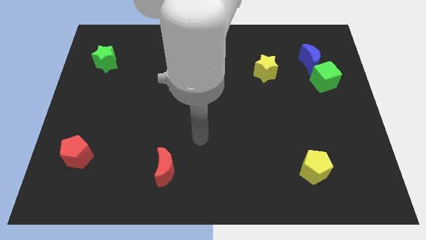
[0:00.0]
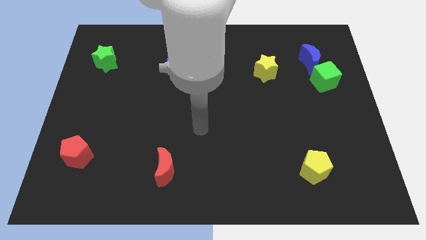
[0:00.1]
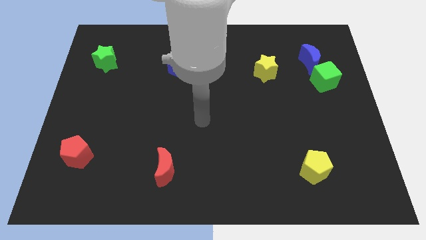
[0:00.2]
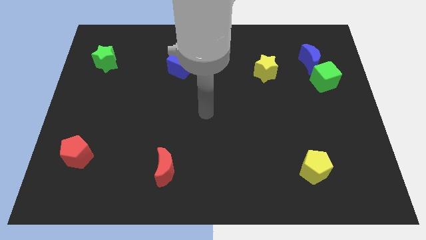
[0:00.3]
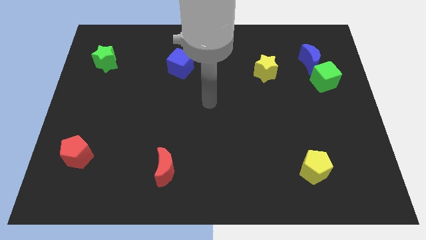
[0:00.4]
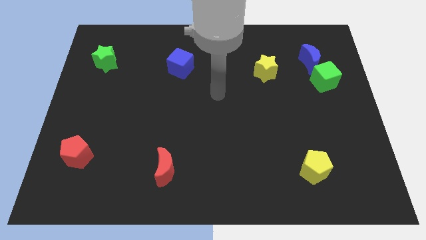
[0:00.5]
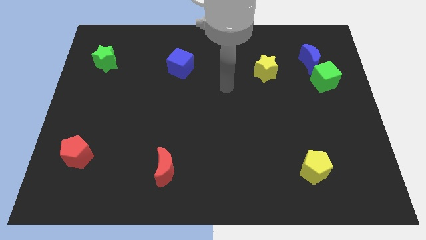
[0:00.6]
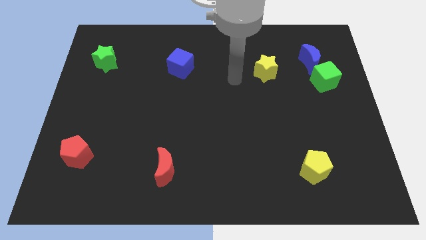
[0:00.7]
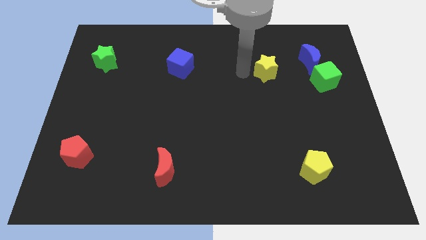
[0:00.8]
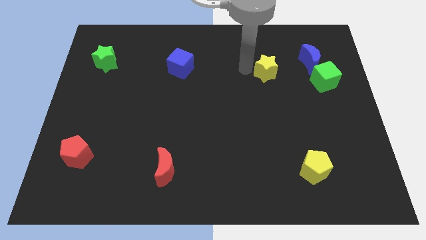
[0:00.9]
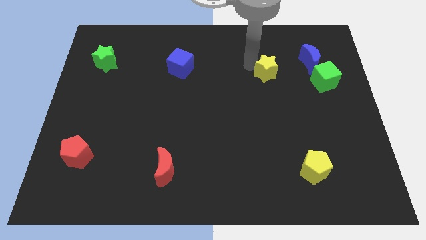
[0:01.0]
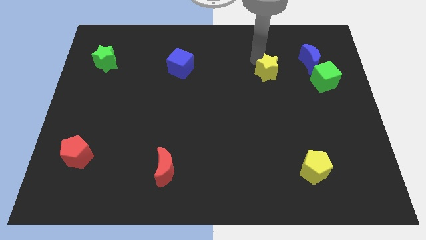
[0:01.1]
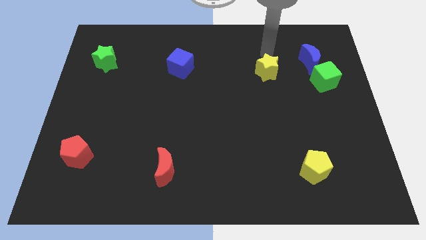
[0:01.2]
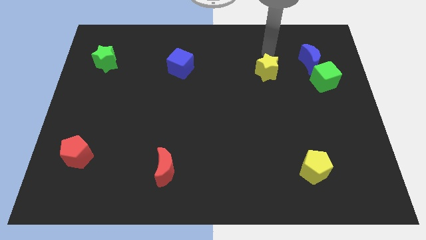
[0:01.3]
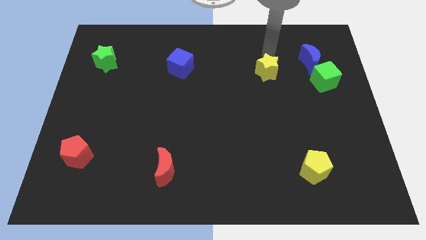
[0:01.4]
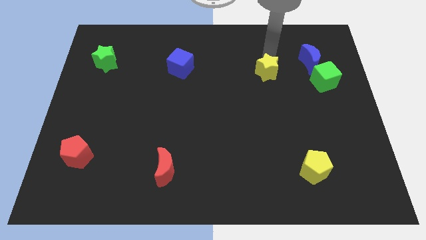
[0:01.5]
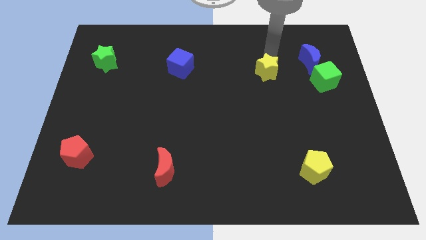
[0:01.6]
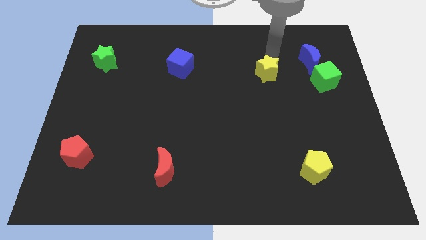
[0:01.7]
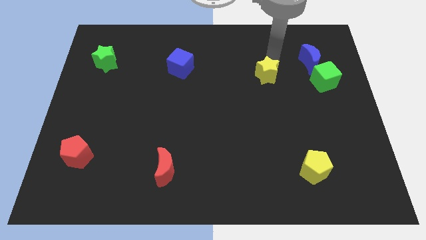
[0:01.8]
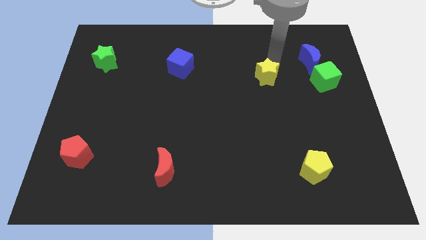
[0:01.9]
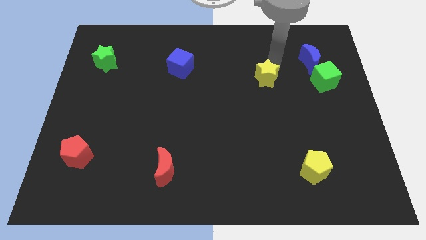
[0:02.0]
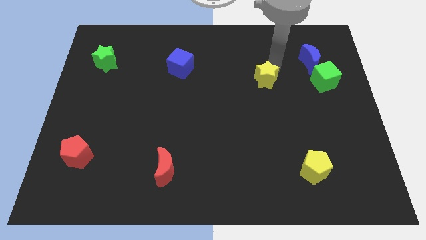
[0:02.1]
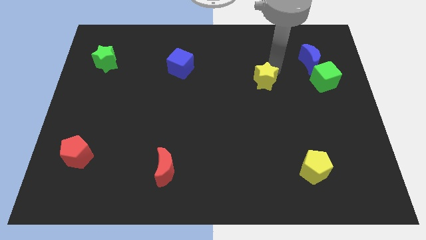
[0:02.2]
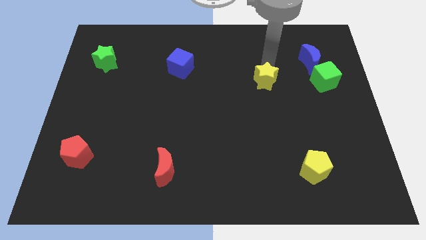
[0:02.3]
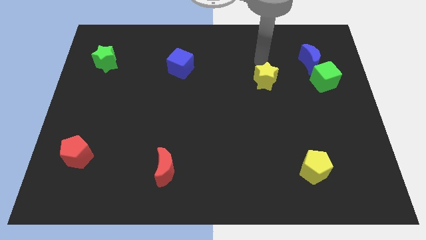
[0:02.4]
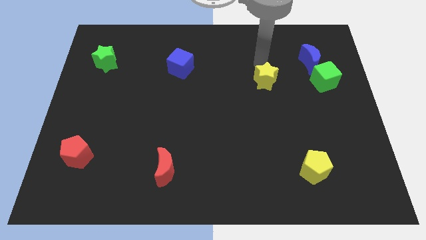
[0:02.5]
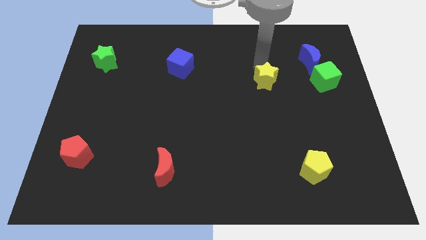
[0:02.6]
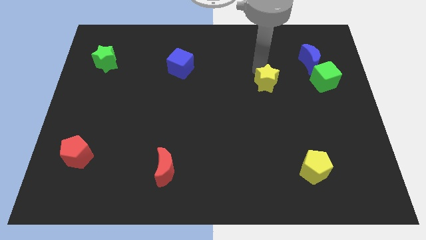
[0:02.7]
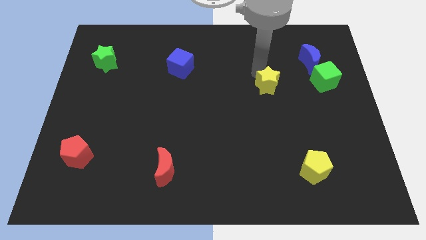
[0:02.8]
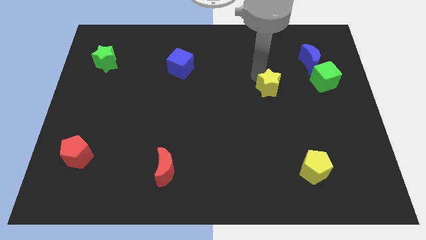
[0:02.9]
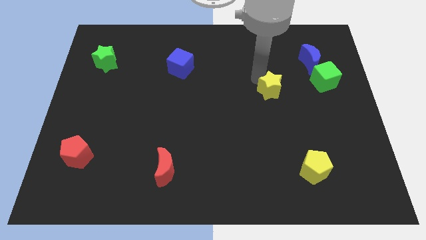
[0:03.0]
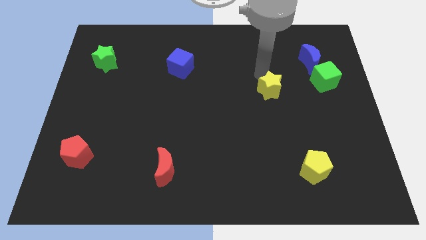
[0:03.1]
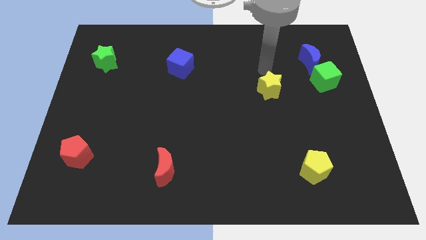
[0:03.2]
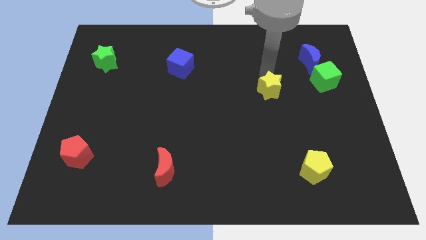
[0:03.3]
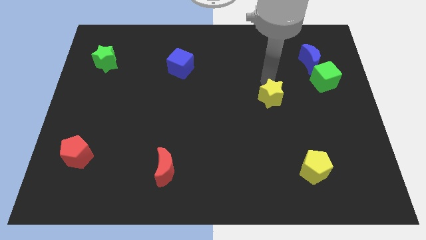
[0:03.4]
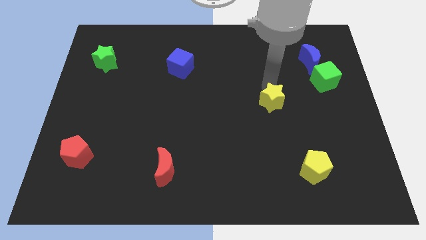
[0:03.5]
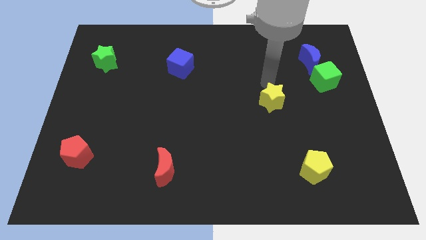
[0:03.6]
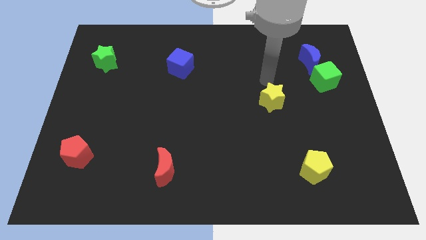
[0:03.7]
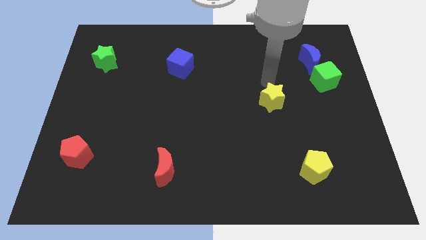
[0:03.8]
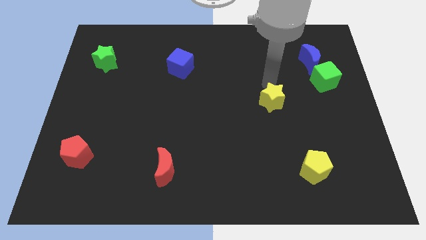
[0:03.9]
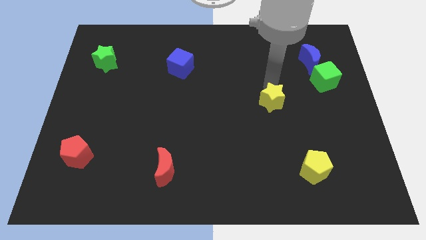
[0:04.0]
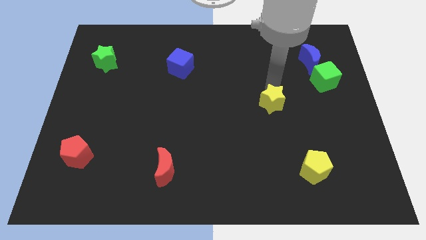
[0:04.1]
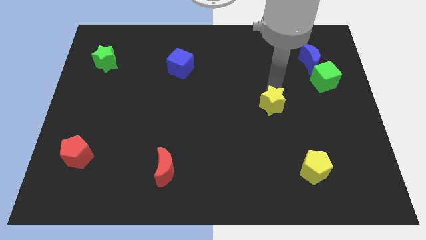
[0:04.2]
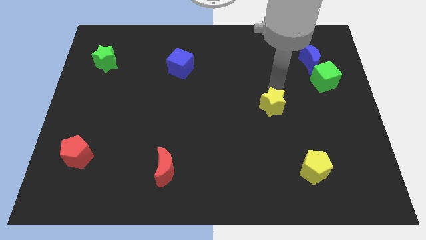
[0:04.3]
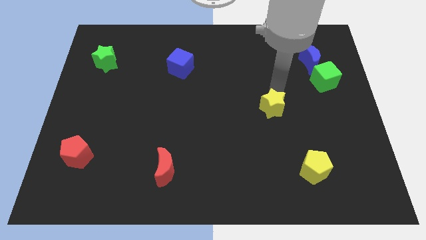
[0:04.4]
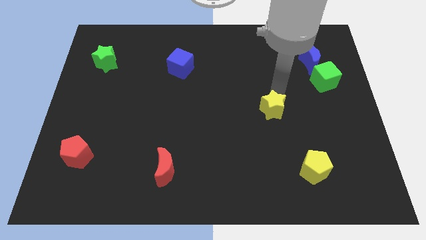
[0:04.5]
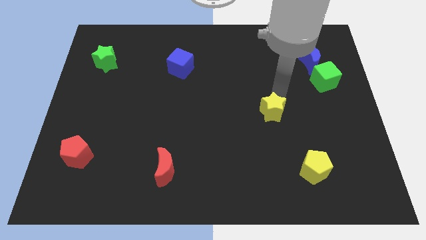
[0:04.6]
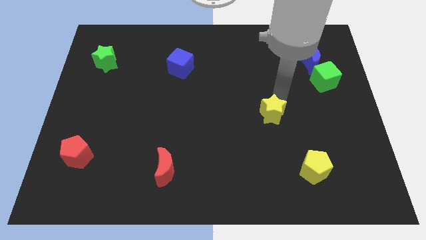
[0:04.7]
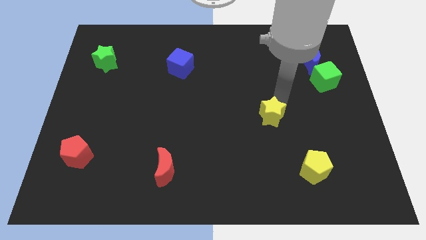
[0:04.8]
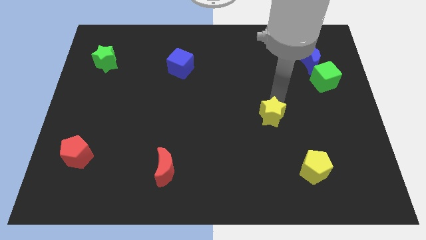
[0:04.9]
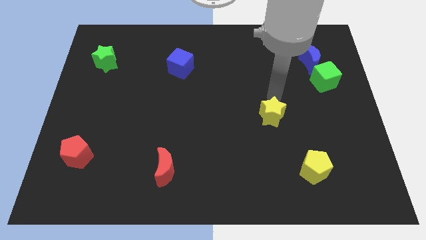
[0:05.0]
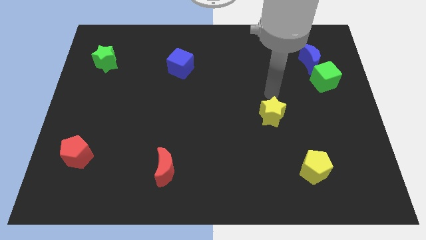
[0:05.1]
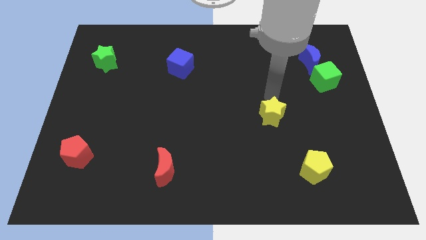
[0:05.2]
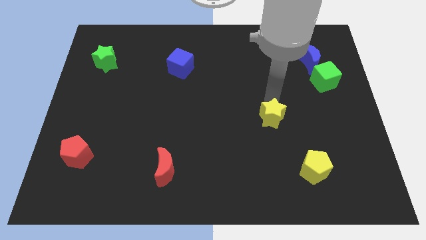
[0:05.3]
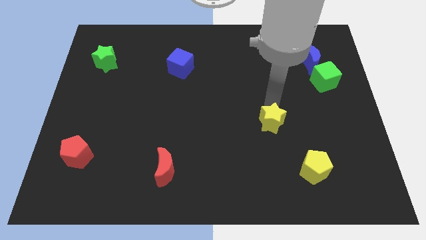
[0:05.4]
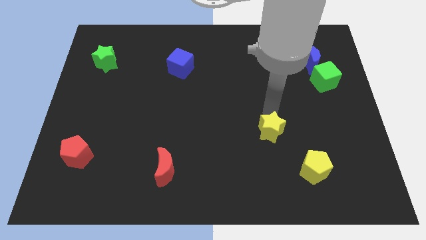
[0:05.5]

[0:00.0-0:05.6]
put the yellow star to the top left side of the yellow pentagon

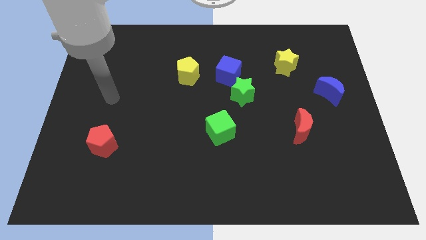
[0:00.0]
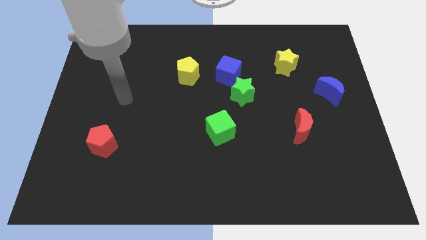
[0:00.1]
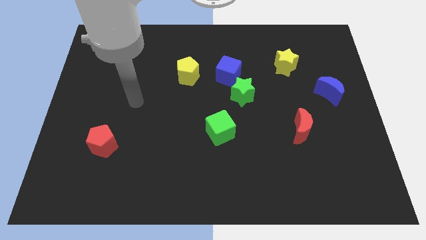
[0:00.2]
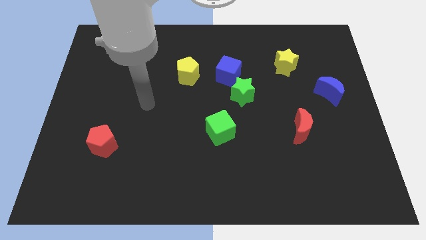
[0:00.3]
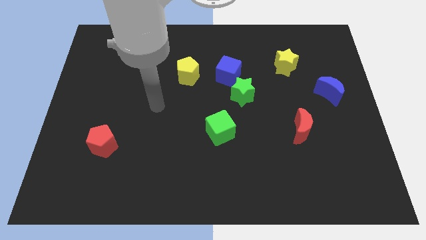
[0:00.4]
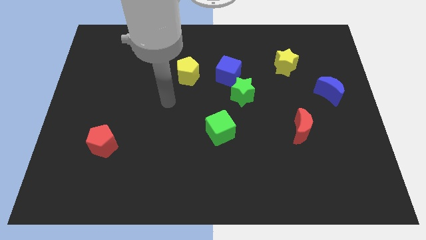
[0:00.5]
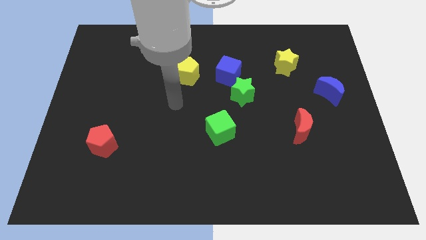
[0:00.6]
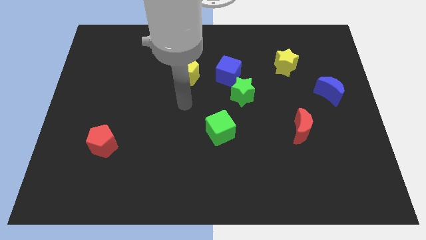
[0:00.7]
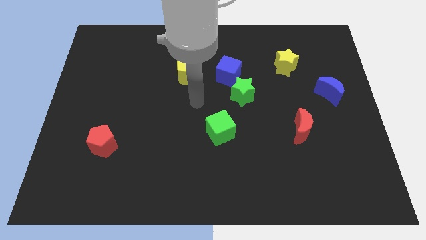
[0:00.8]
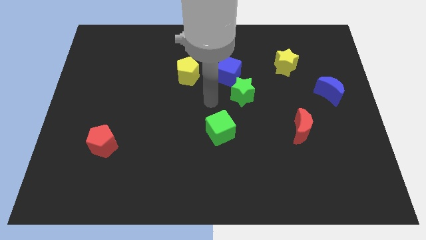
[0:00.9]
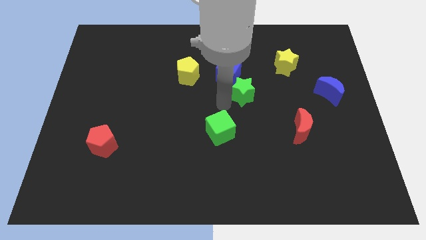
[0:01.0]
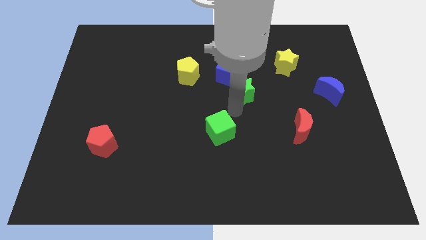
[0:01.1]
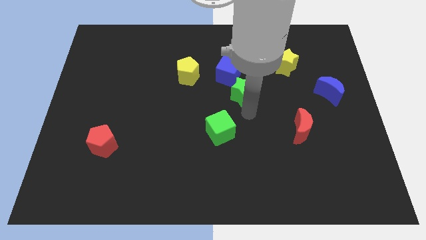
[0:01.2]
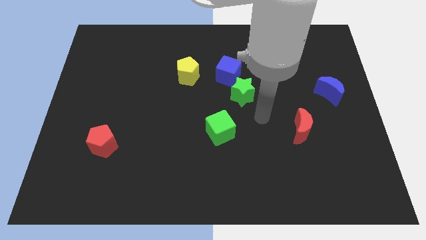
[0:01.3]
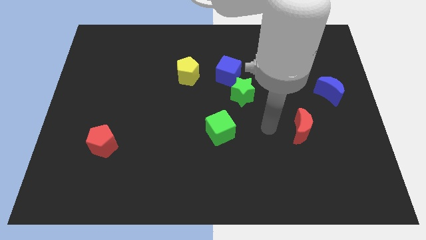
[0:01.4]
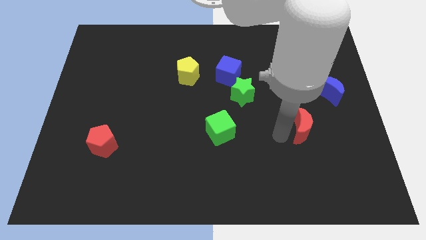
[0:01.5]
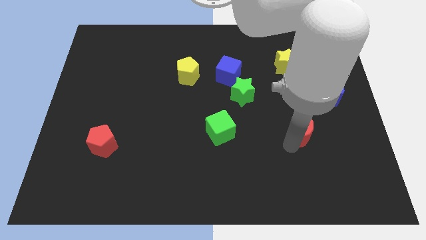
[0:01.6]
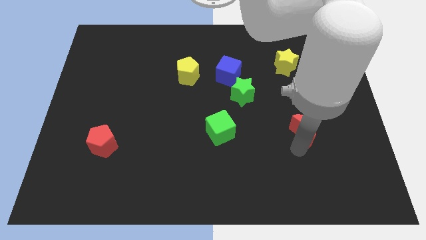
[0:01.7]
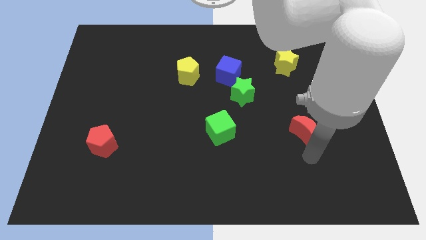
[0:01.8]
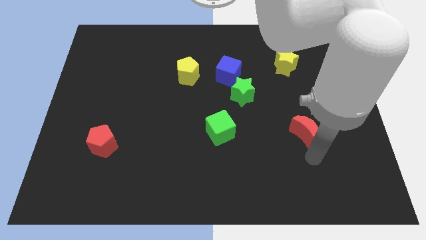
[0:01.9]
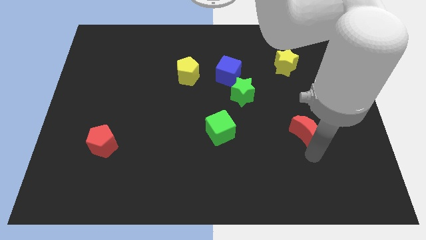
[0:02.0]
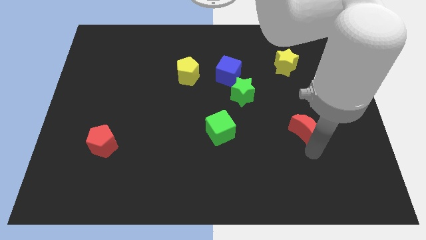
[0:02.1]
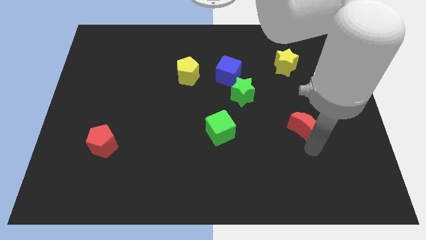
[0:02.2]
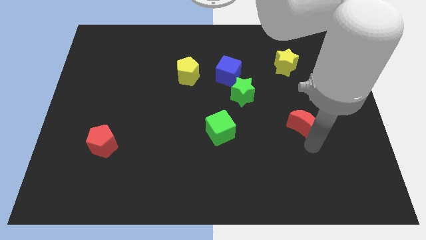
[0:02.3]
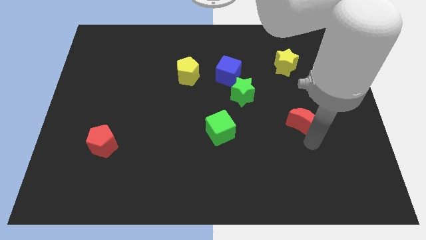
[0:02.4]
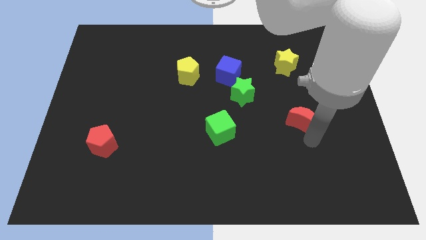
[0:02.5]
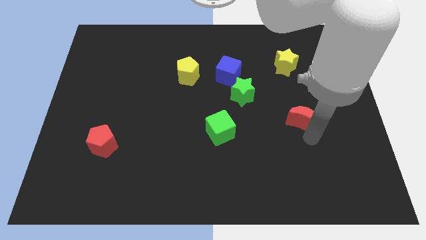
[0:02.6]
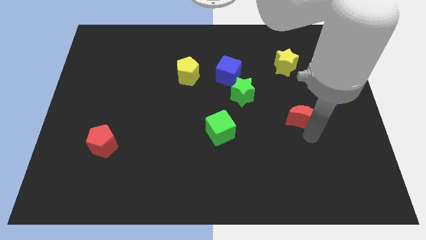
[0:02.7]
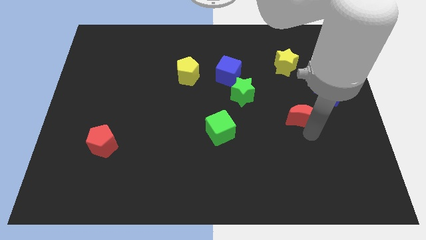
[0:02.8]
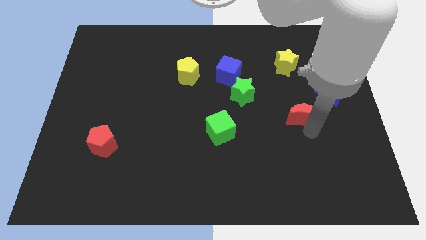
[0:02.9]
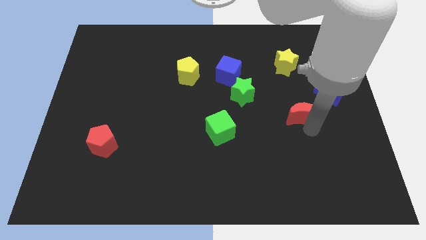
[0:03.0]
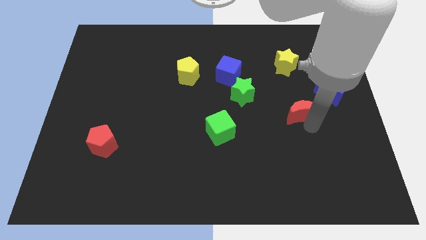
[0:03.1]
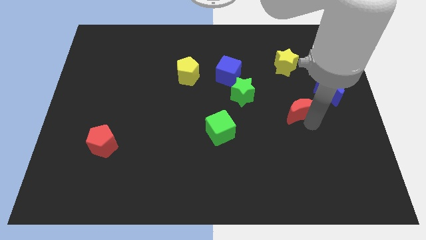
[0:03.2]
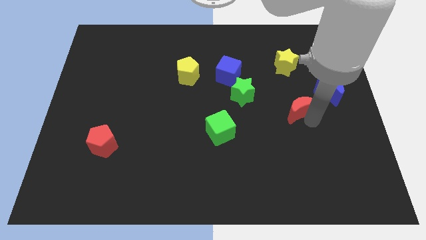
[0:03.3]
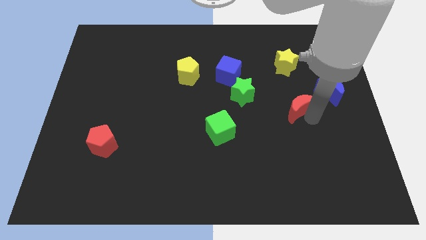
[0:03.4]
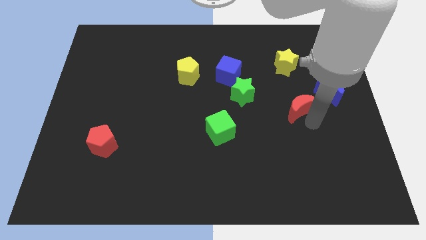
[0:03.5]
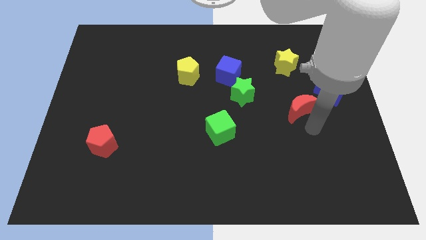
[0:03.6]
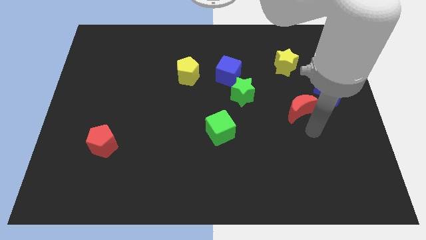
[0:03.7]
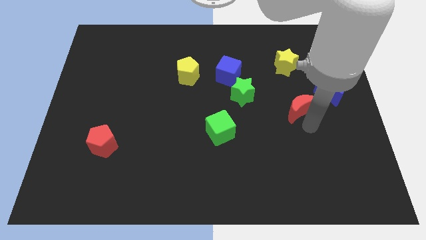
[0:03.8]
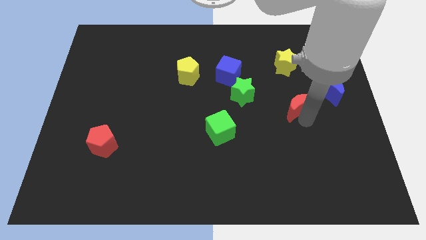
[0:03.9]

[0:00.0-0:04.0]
move the red moon to the left of the blue moon
